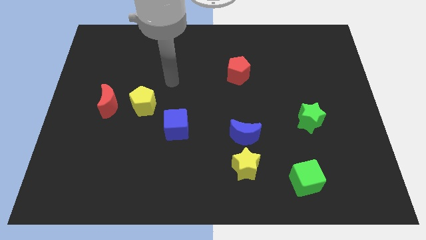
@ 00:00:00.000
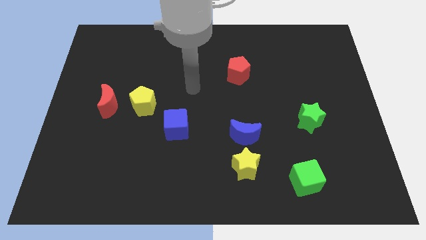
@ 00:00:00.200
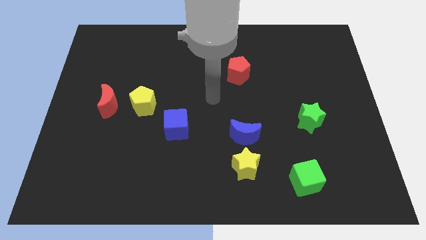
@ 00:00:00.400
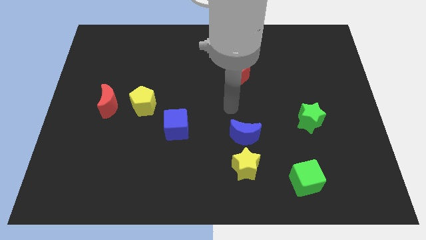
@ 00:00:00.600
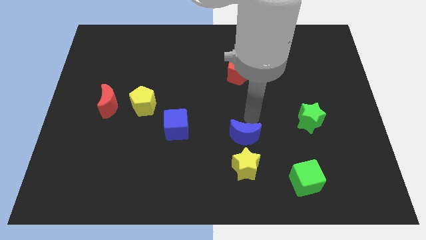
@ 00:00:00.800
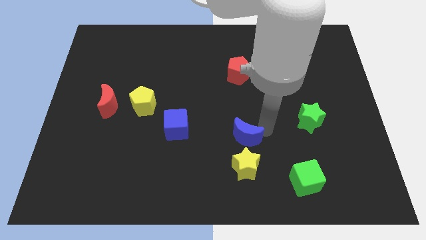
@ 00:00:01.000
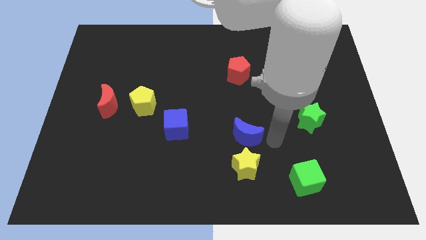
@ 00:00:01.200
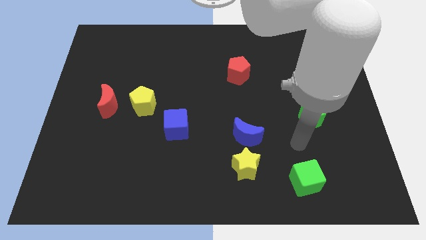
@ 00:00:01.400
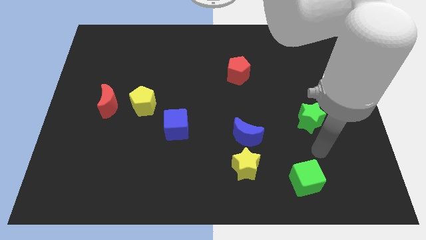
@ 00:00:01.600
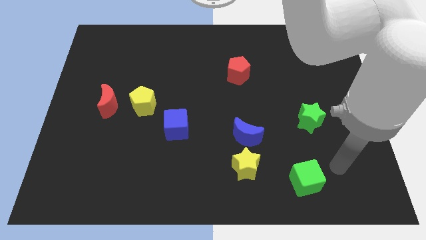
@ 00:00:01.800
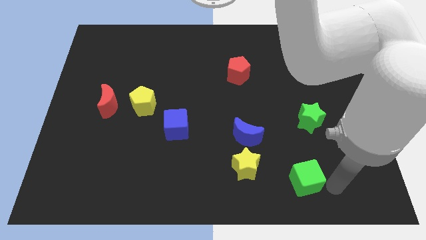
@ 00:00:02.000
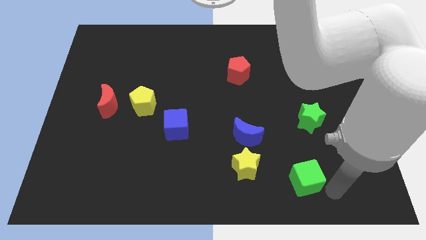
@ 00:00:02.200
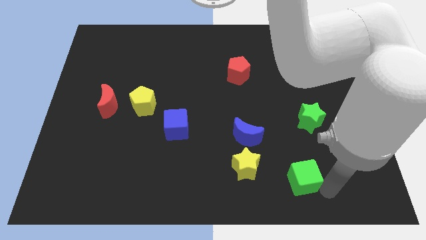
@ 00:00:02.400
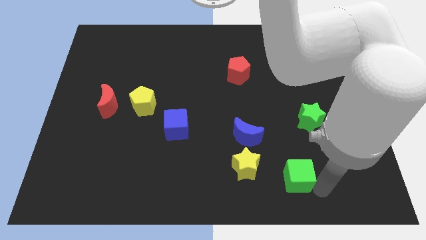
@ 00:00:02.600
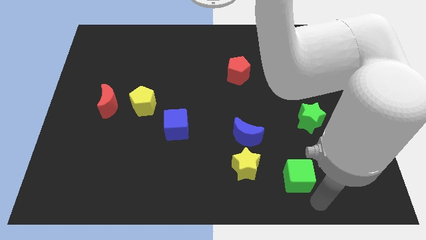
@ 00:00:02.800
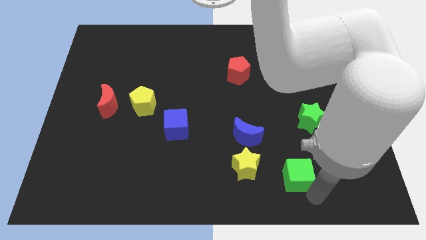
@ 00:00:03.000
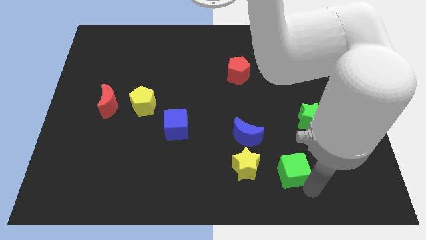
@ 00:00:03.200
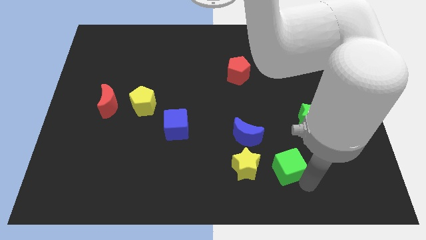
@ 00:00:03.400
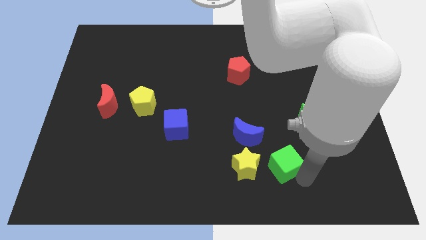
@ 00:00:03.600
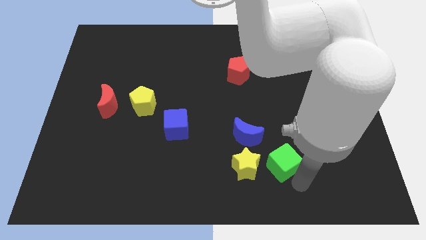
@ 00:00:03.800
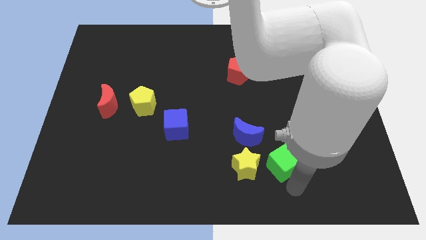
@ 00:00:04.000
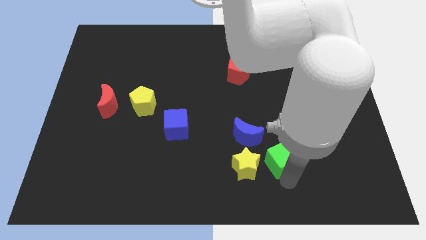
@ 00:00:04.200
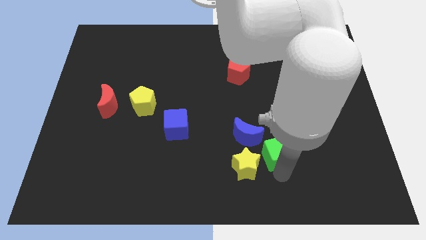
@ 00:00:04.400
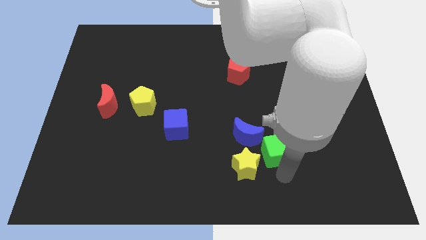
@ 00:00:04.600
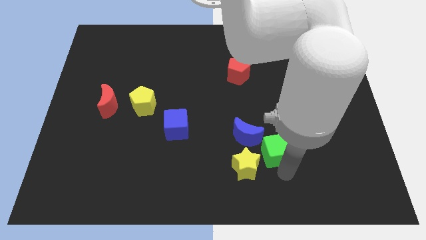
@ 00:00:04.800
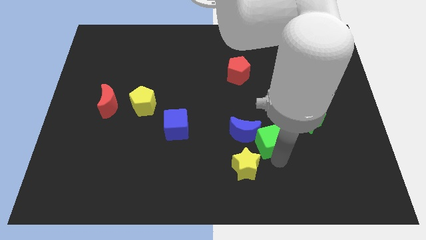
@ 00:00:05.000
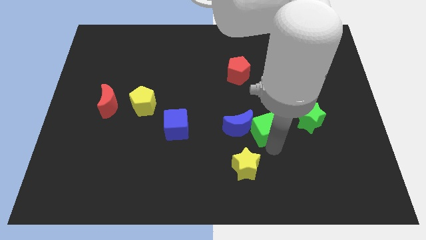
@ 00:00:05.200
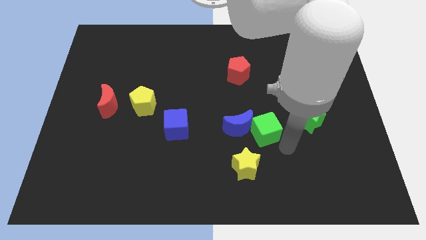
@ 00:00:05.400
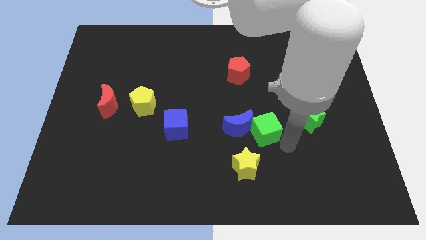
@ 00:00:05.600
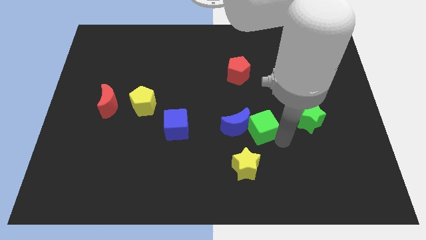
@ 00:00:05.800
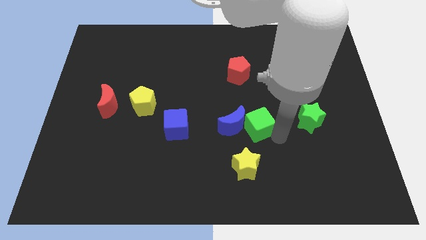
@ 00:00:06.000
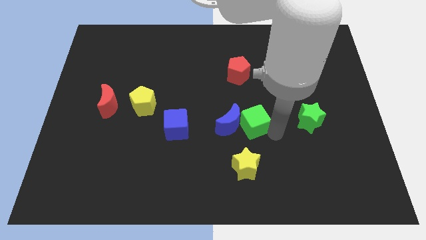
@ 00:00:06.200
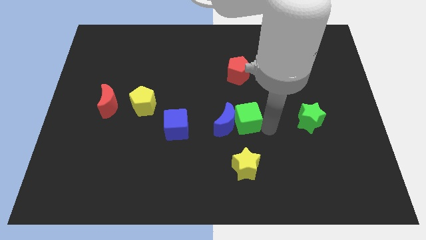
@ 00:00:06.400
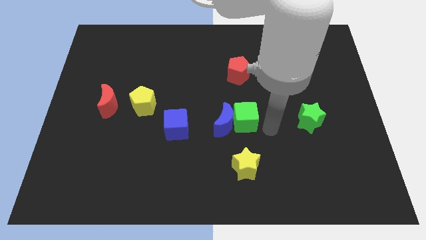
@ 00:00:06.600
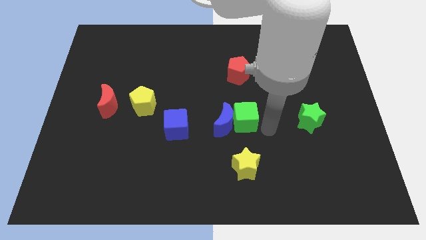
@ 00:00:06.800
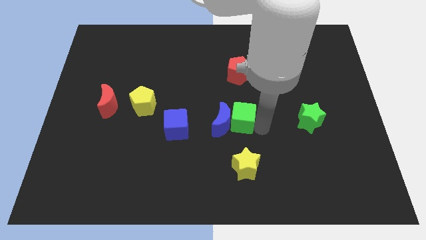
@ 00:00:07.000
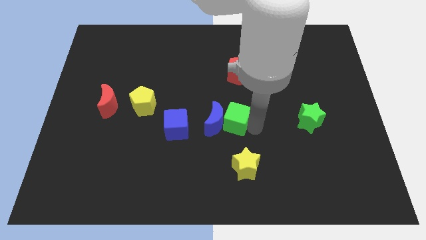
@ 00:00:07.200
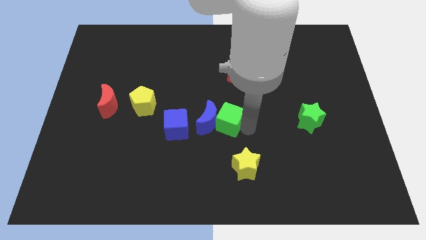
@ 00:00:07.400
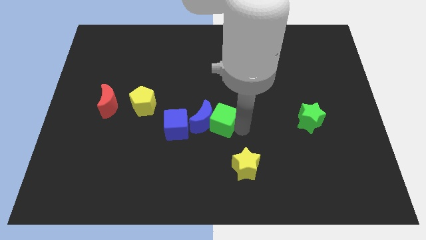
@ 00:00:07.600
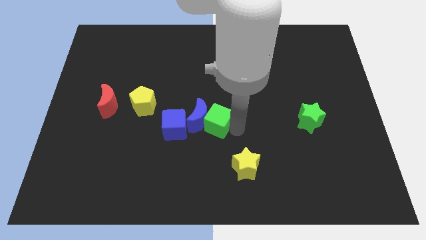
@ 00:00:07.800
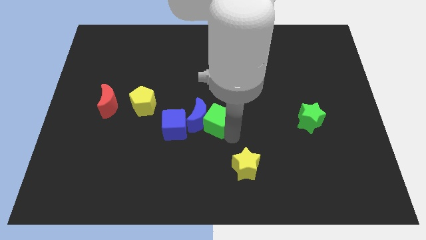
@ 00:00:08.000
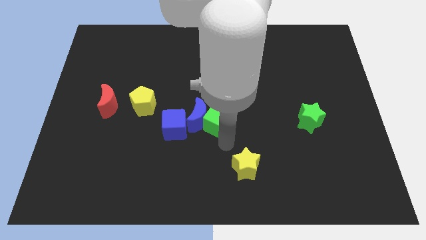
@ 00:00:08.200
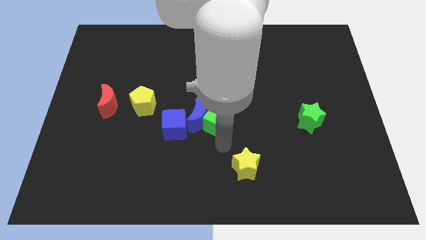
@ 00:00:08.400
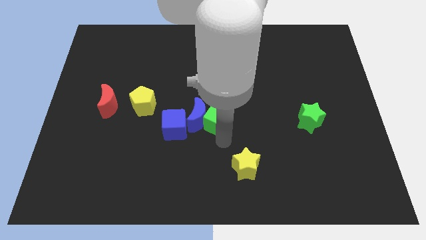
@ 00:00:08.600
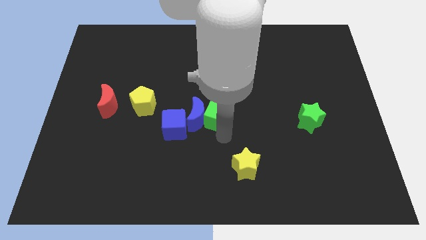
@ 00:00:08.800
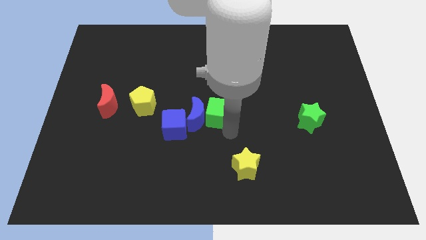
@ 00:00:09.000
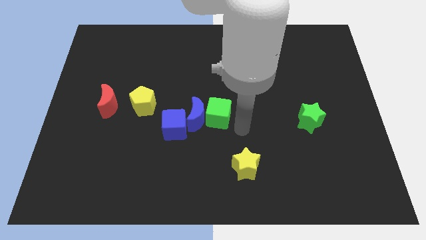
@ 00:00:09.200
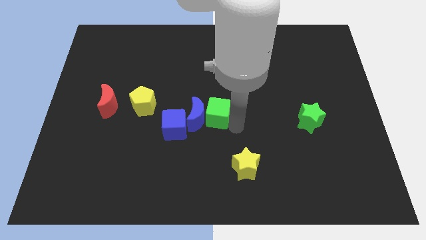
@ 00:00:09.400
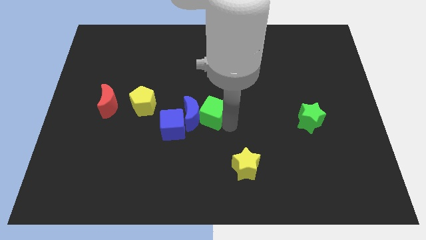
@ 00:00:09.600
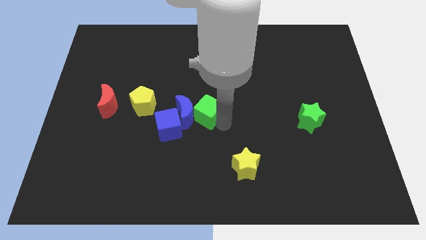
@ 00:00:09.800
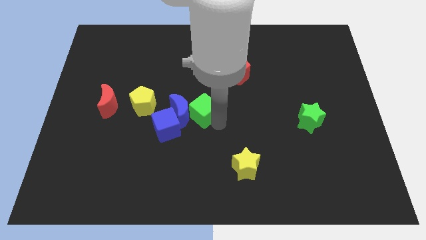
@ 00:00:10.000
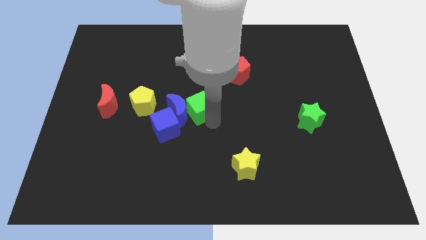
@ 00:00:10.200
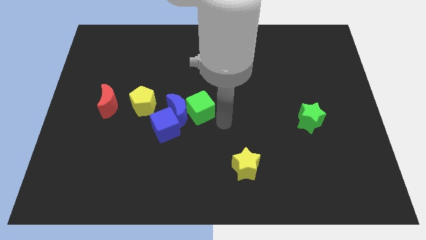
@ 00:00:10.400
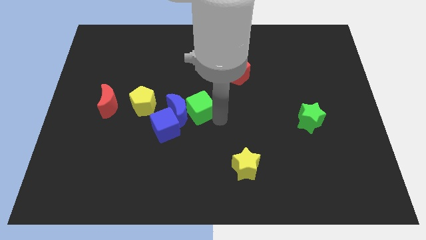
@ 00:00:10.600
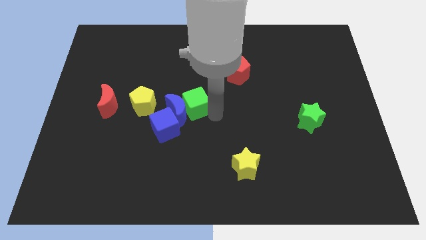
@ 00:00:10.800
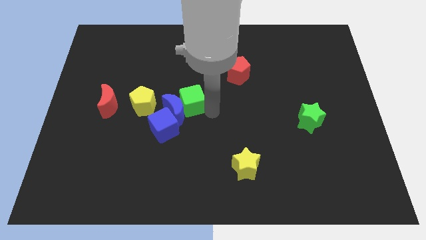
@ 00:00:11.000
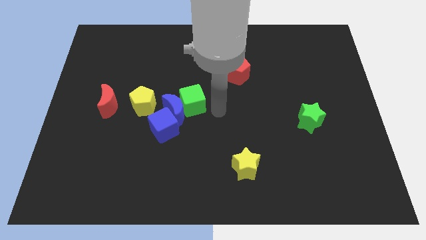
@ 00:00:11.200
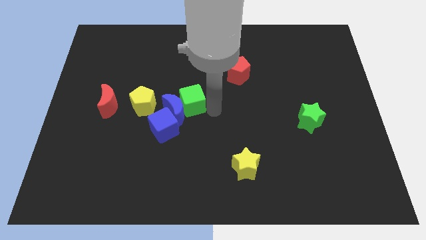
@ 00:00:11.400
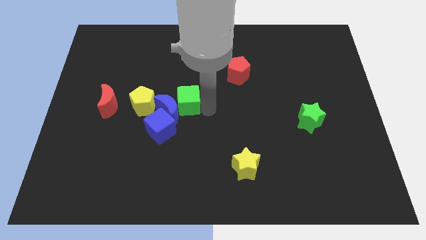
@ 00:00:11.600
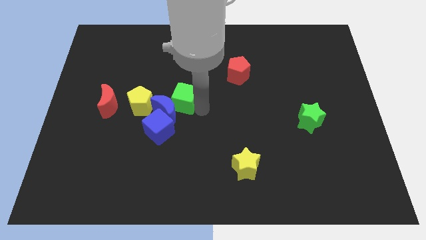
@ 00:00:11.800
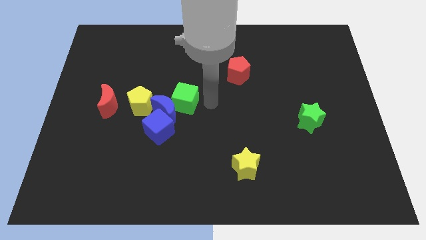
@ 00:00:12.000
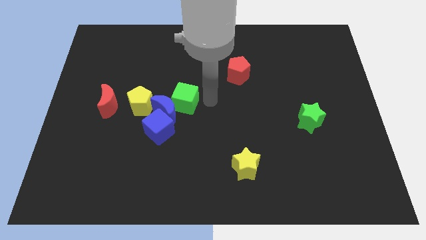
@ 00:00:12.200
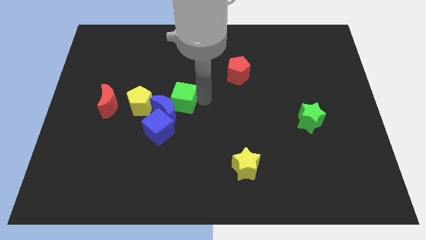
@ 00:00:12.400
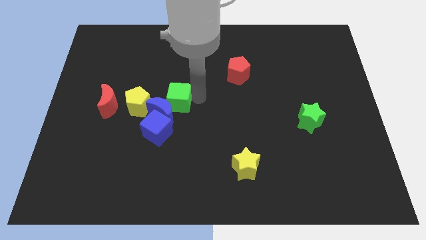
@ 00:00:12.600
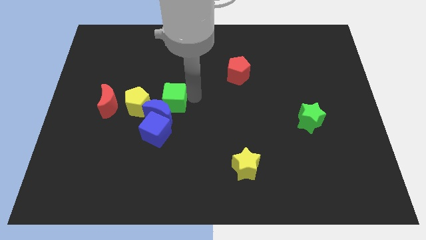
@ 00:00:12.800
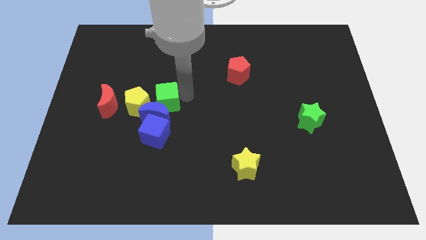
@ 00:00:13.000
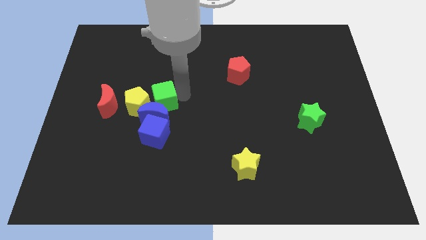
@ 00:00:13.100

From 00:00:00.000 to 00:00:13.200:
put the green cube close to the yellow pentagon

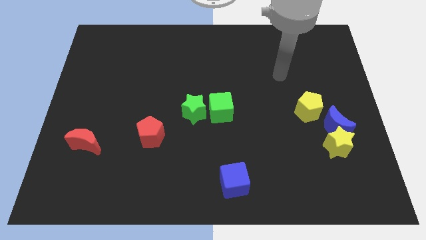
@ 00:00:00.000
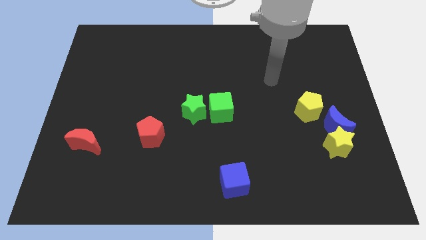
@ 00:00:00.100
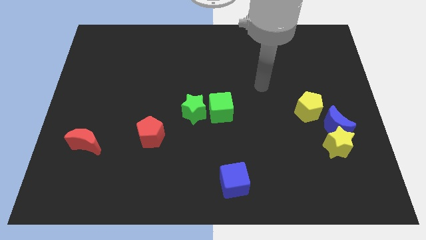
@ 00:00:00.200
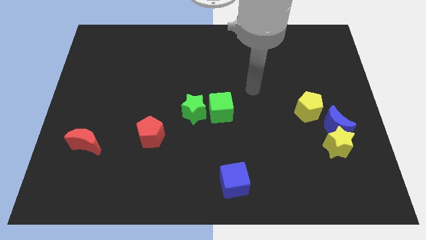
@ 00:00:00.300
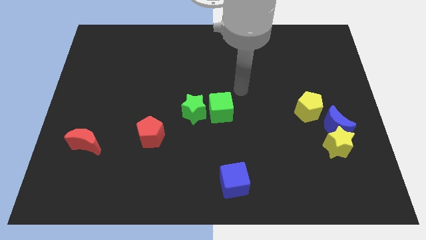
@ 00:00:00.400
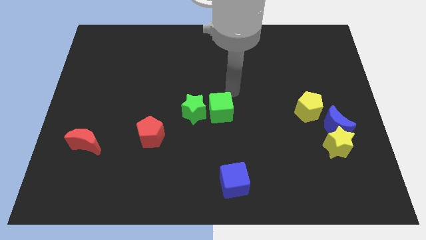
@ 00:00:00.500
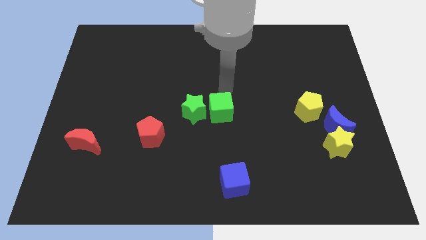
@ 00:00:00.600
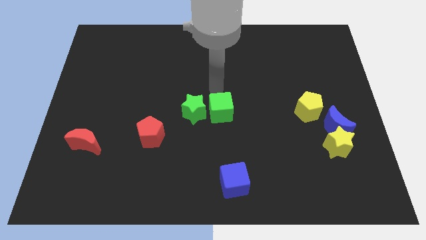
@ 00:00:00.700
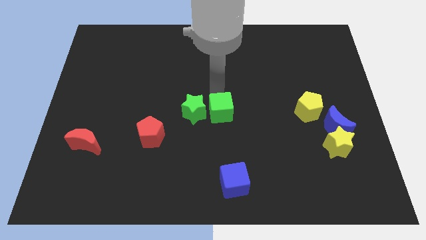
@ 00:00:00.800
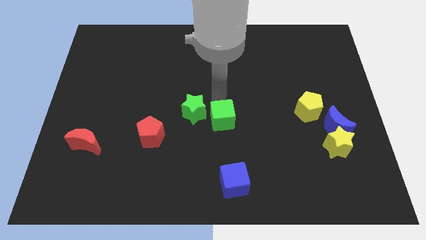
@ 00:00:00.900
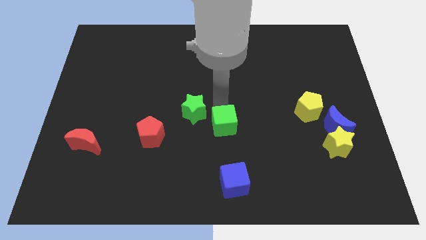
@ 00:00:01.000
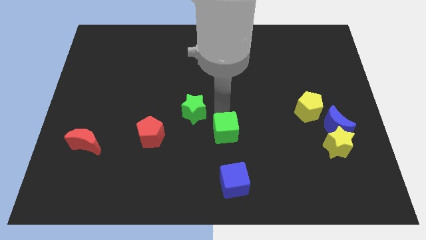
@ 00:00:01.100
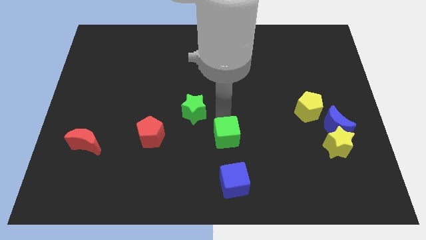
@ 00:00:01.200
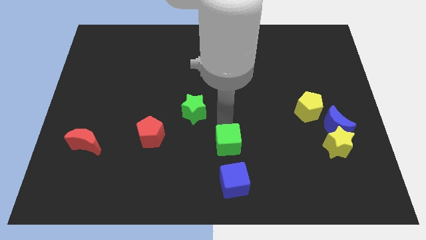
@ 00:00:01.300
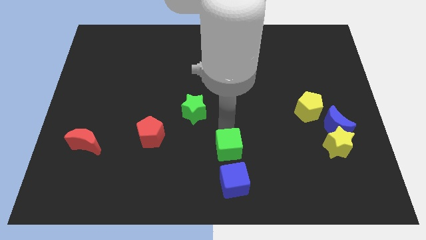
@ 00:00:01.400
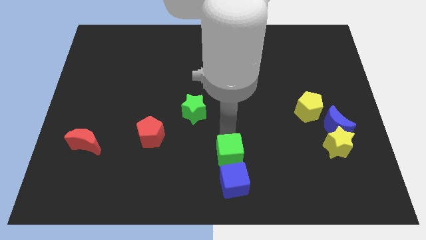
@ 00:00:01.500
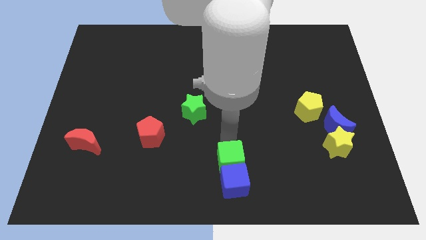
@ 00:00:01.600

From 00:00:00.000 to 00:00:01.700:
move the green cube next to the blue cube
